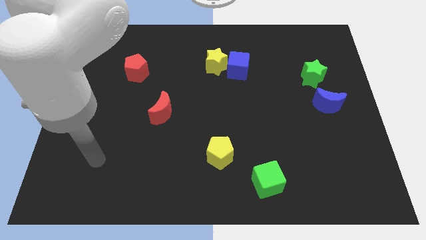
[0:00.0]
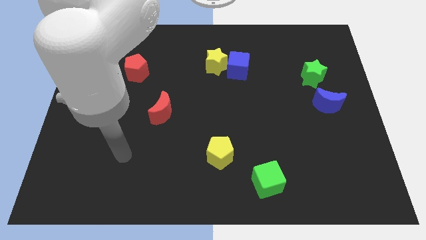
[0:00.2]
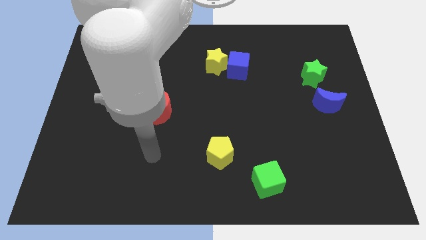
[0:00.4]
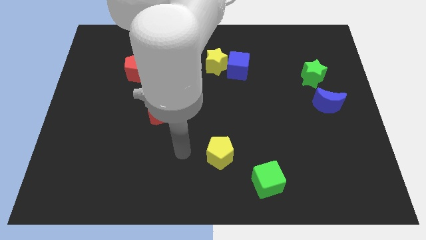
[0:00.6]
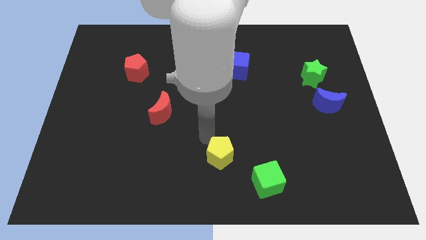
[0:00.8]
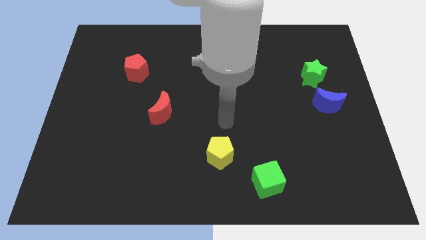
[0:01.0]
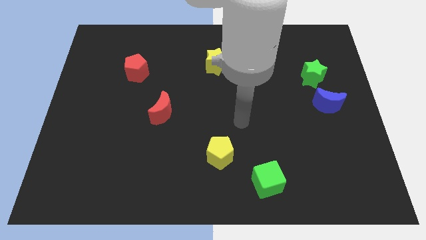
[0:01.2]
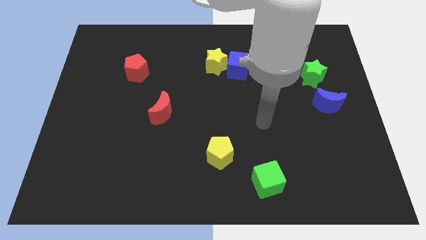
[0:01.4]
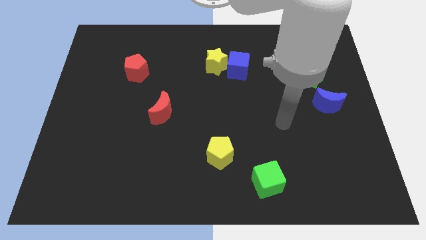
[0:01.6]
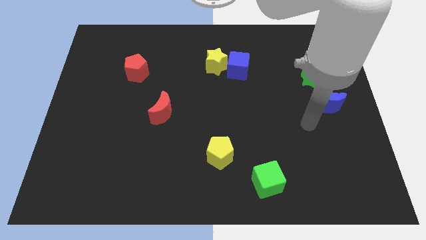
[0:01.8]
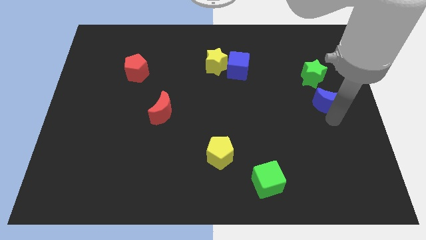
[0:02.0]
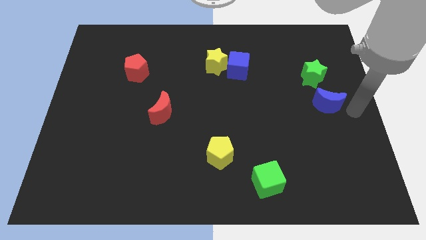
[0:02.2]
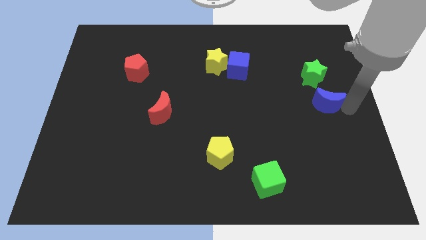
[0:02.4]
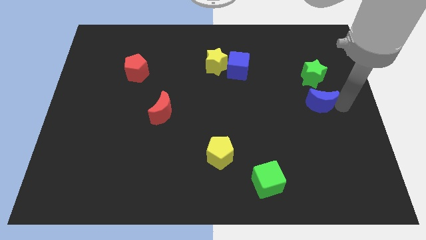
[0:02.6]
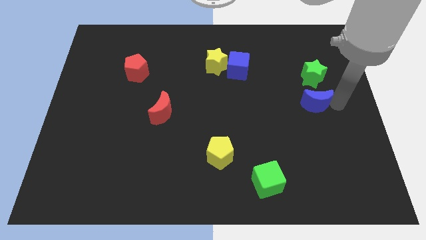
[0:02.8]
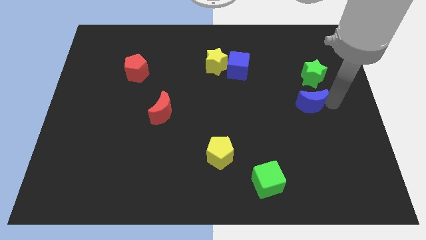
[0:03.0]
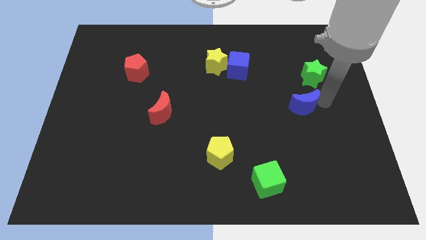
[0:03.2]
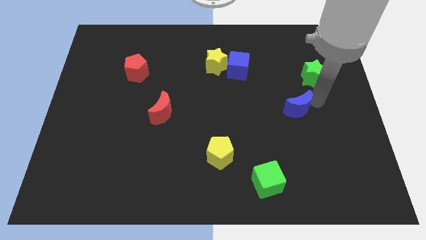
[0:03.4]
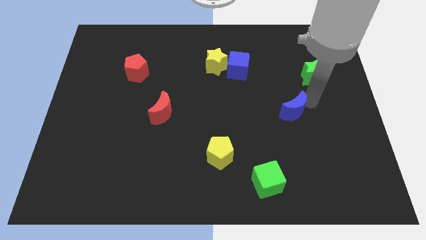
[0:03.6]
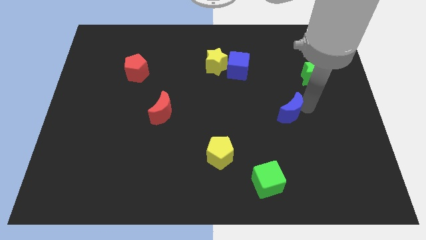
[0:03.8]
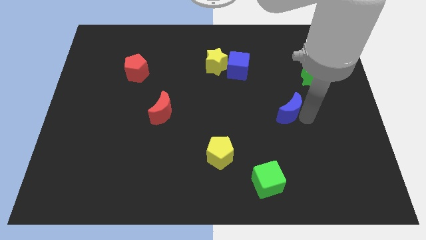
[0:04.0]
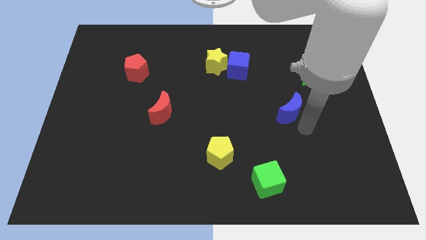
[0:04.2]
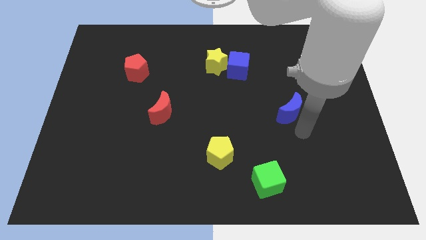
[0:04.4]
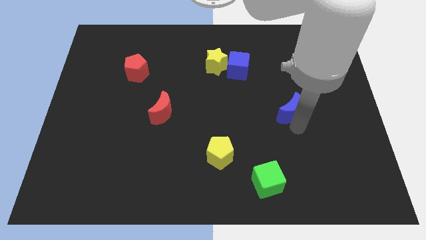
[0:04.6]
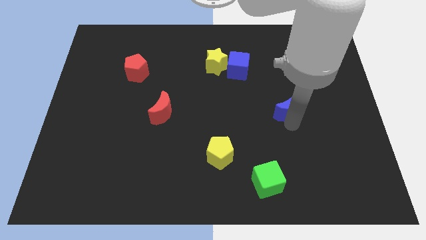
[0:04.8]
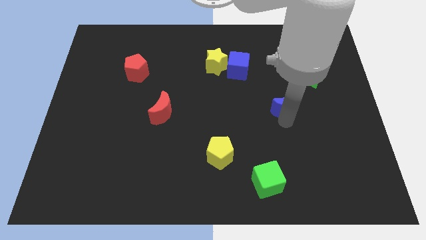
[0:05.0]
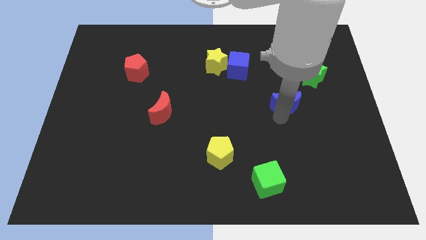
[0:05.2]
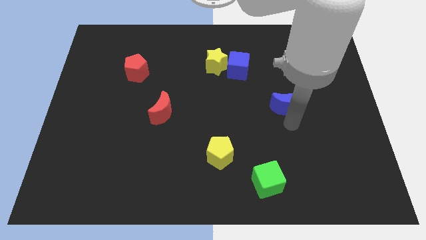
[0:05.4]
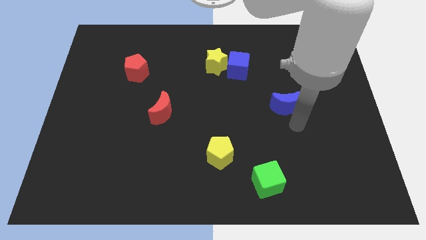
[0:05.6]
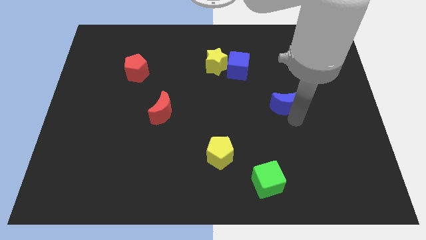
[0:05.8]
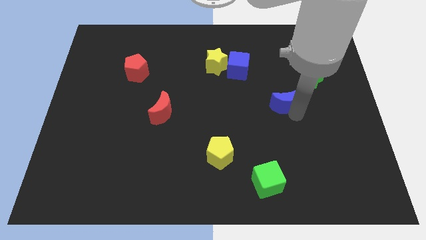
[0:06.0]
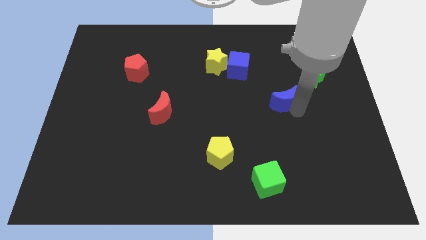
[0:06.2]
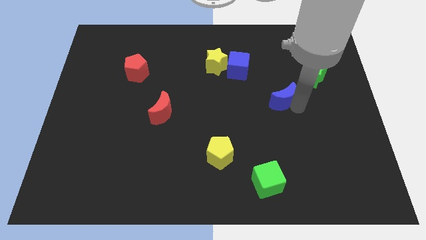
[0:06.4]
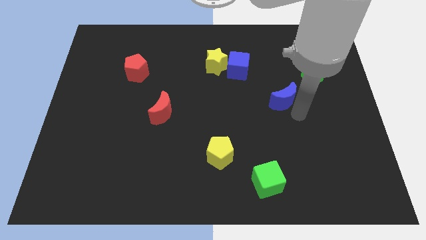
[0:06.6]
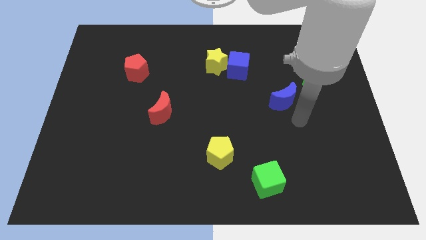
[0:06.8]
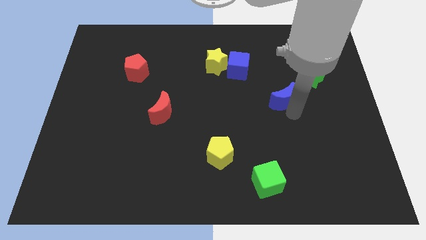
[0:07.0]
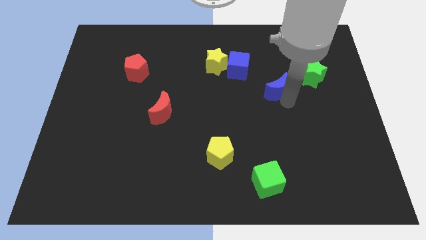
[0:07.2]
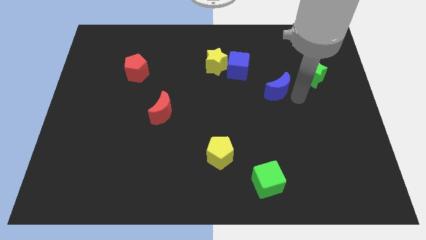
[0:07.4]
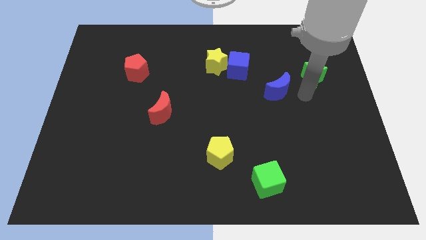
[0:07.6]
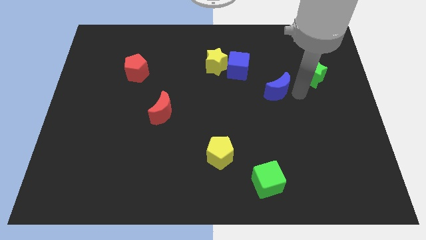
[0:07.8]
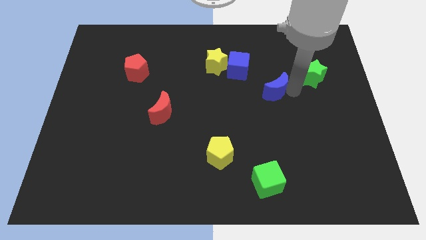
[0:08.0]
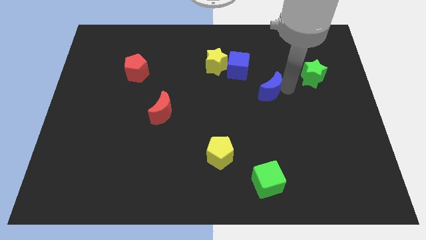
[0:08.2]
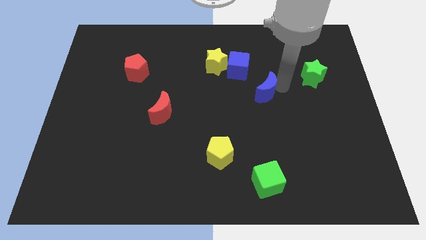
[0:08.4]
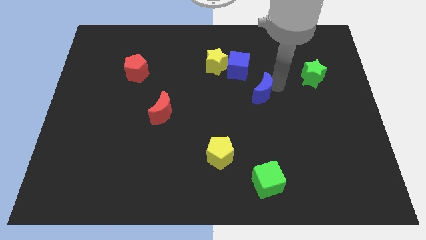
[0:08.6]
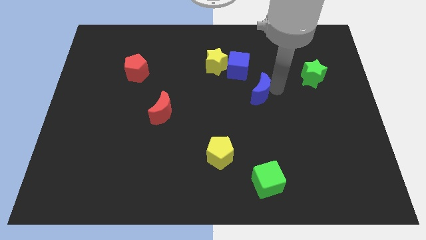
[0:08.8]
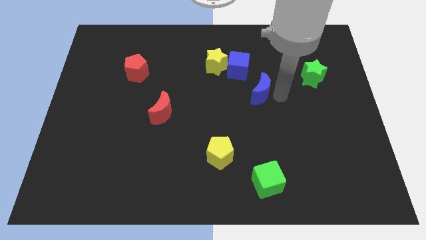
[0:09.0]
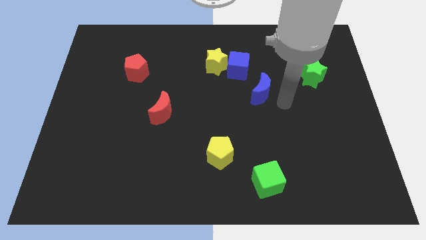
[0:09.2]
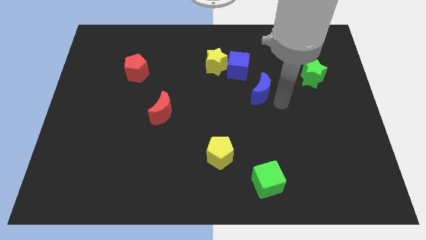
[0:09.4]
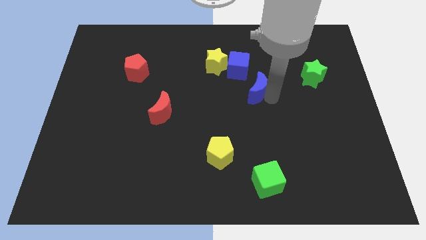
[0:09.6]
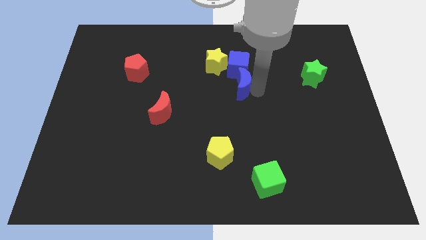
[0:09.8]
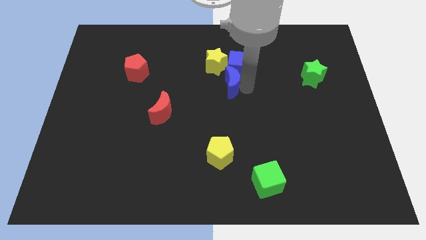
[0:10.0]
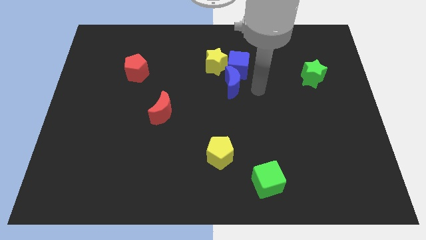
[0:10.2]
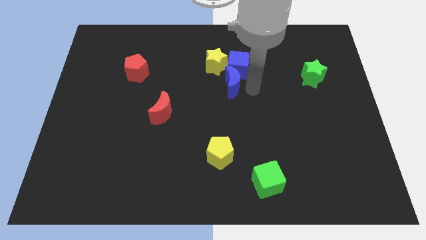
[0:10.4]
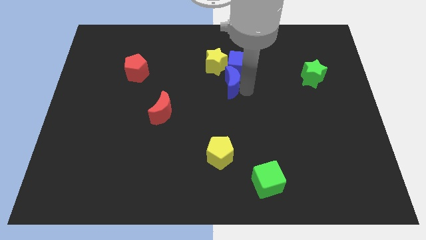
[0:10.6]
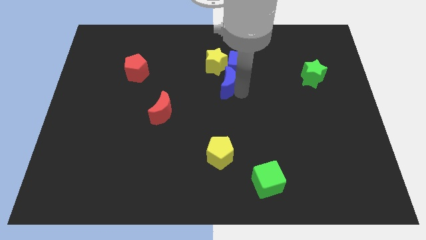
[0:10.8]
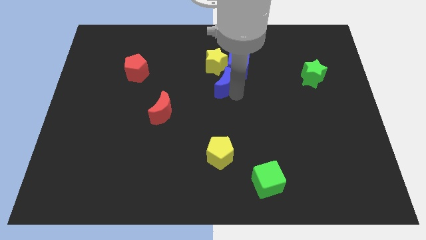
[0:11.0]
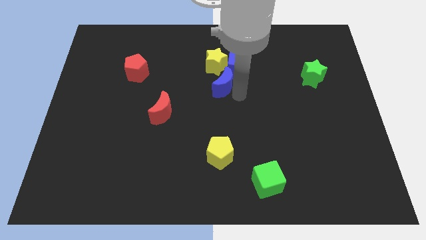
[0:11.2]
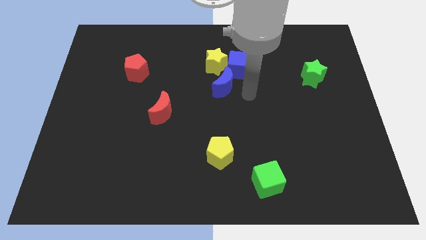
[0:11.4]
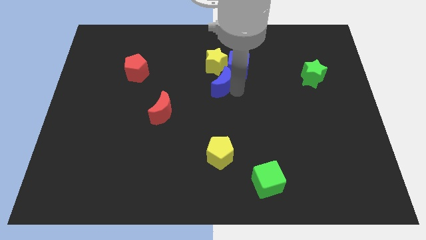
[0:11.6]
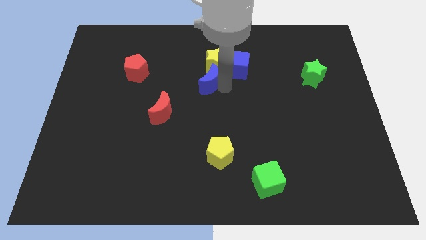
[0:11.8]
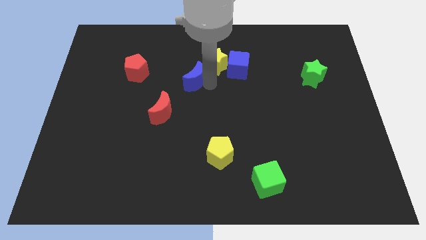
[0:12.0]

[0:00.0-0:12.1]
slide the blue moon to the right of the red pentagon

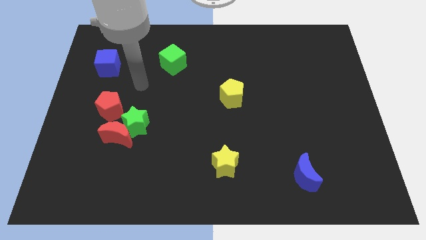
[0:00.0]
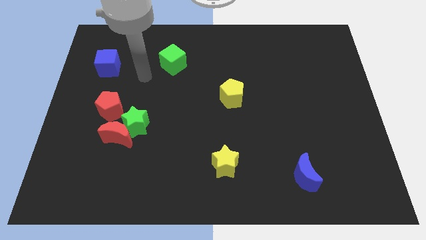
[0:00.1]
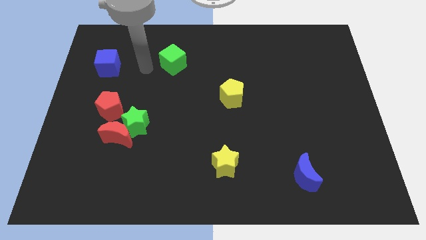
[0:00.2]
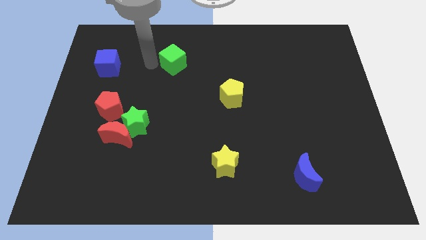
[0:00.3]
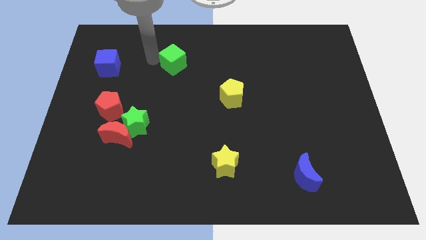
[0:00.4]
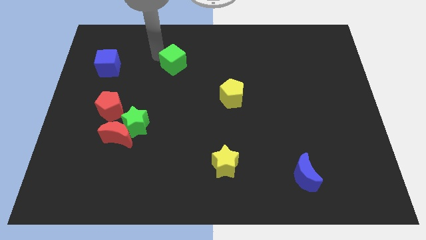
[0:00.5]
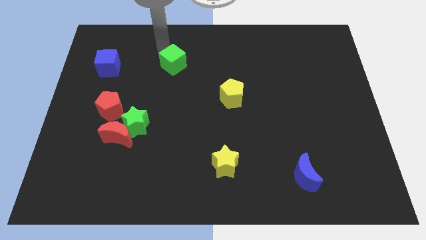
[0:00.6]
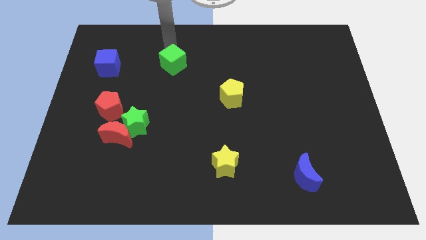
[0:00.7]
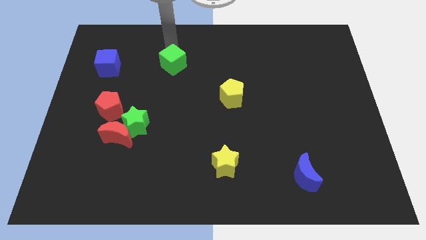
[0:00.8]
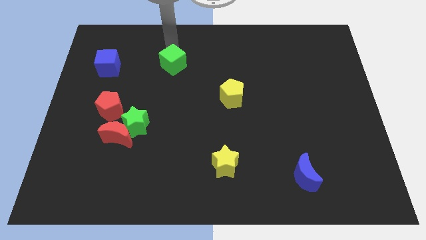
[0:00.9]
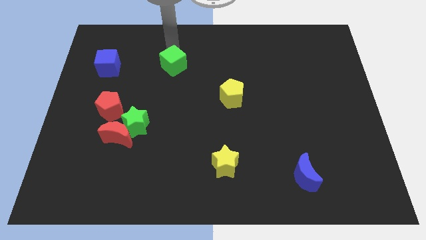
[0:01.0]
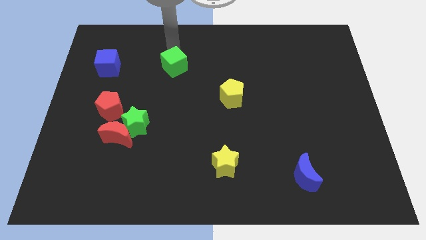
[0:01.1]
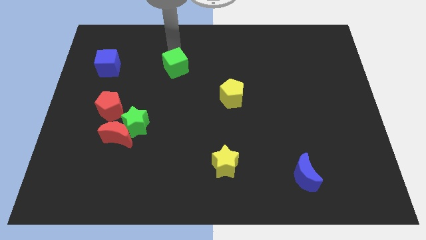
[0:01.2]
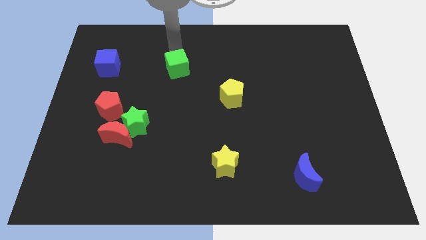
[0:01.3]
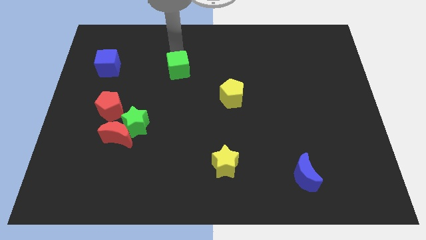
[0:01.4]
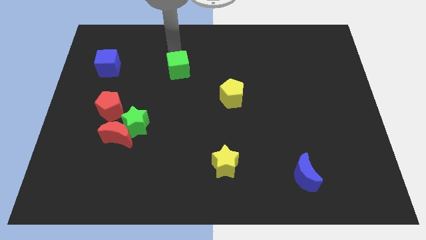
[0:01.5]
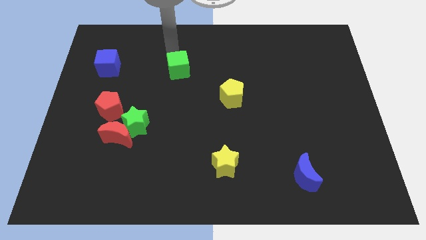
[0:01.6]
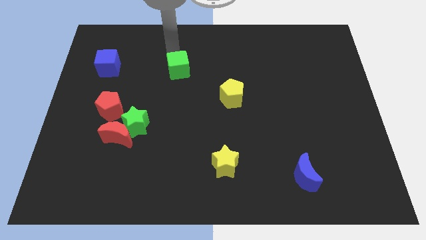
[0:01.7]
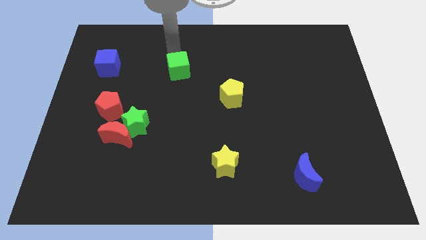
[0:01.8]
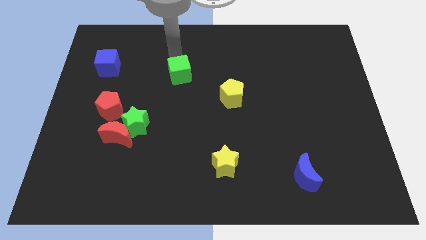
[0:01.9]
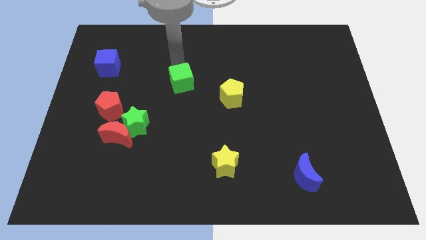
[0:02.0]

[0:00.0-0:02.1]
push the green cube to the left of the yellow pentagon

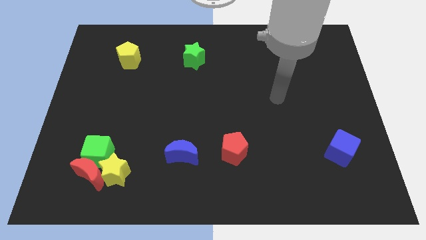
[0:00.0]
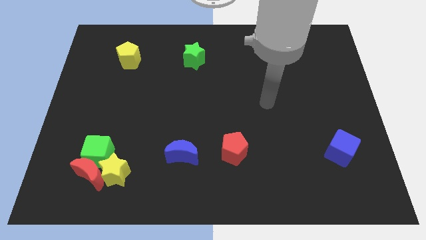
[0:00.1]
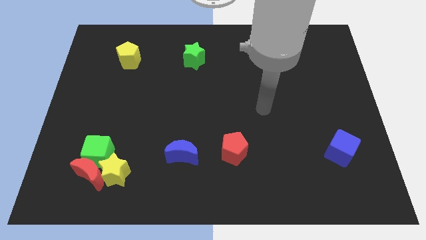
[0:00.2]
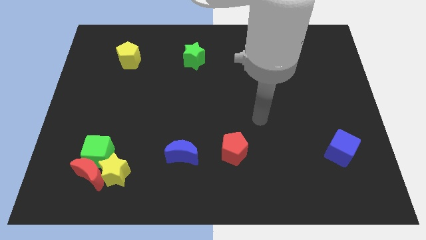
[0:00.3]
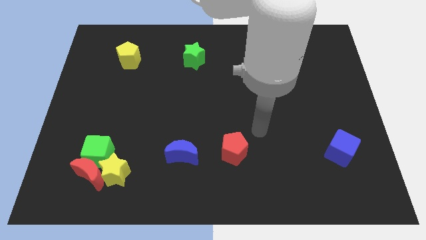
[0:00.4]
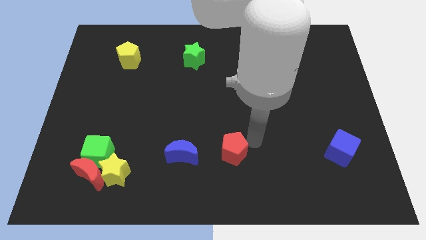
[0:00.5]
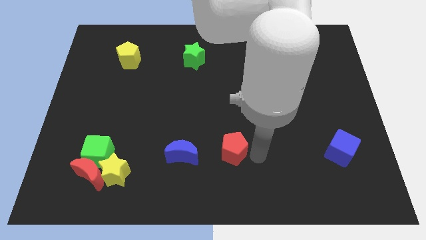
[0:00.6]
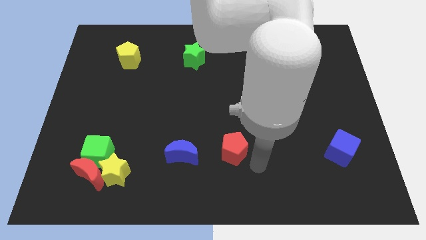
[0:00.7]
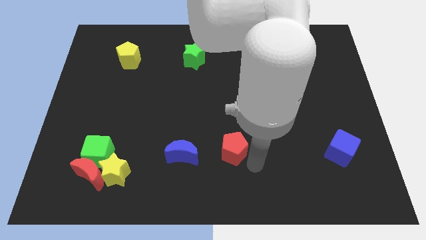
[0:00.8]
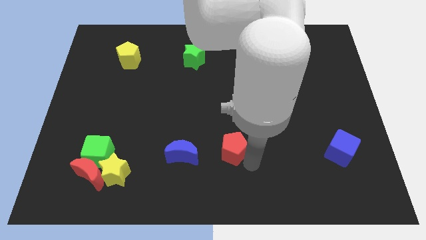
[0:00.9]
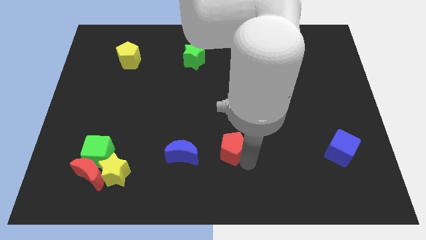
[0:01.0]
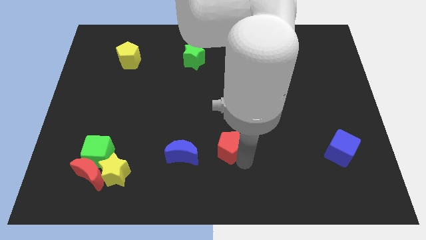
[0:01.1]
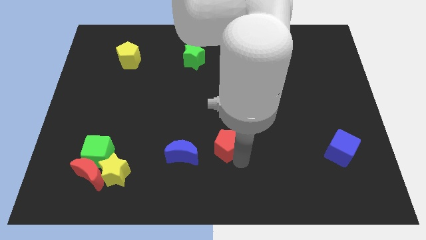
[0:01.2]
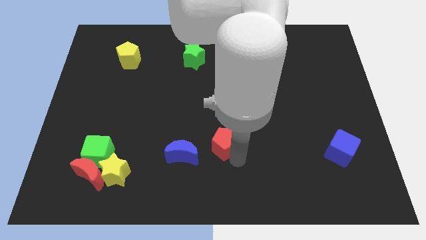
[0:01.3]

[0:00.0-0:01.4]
slide the red pentagon diagonally up and to the right of the blue moon
